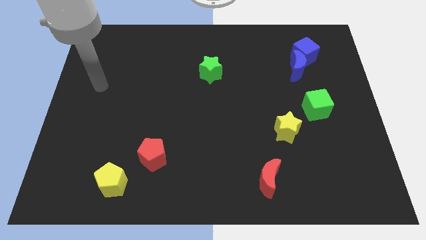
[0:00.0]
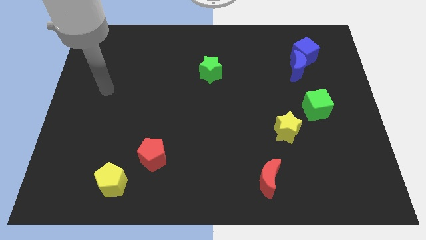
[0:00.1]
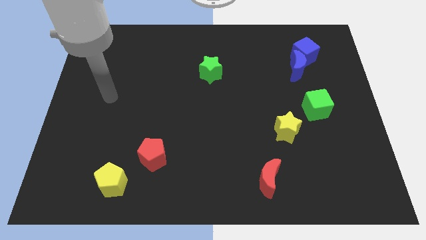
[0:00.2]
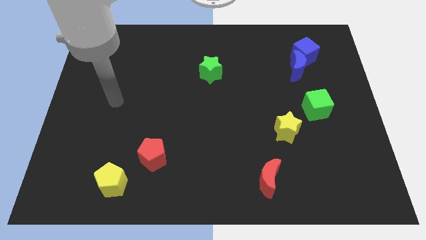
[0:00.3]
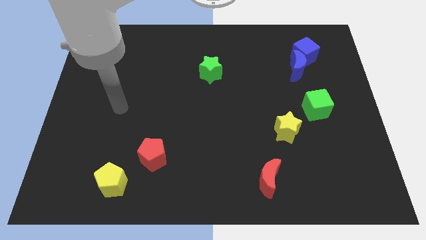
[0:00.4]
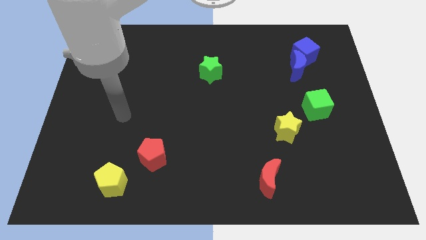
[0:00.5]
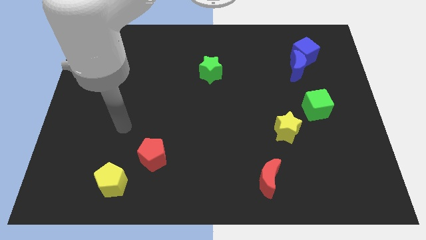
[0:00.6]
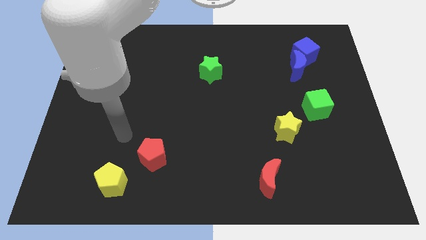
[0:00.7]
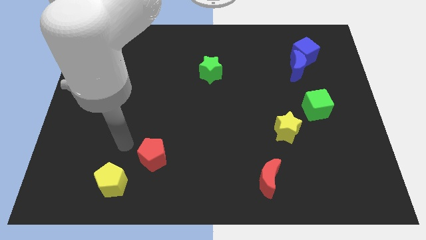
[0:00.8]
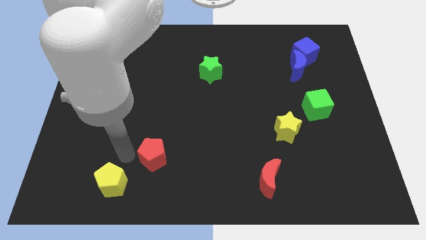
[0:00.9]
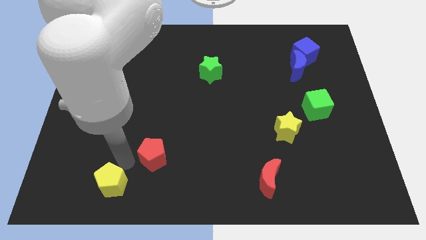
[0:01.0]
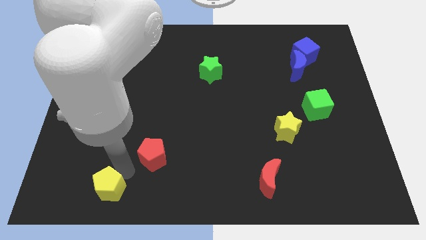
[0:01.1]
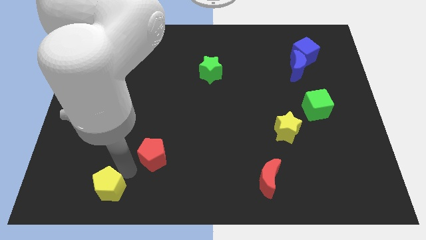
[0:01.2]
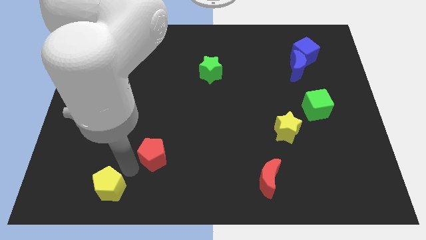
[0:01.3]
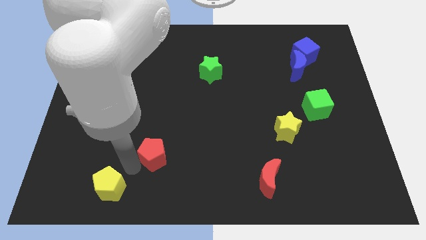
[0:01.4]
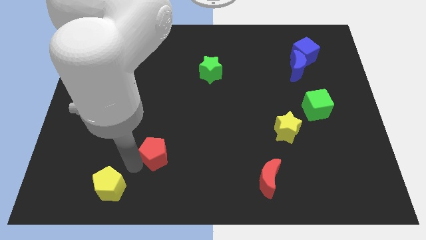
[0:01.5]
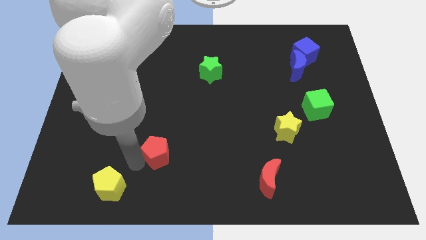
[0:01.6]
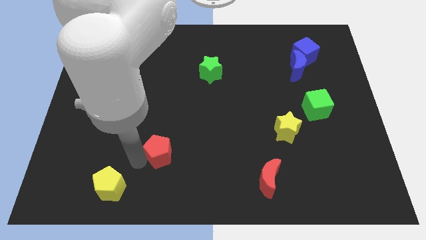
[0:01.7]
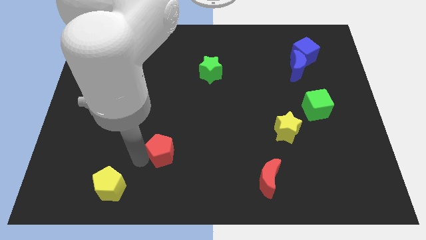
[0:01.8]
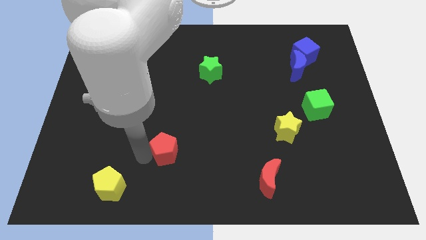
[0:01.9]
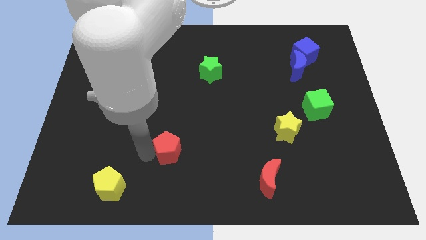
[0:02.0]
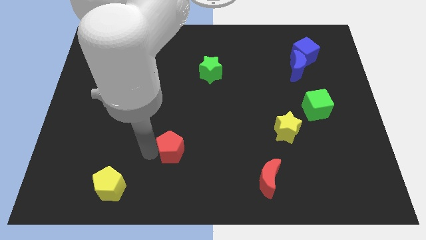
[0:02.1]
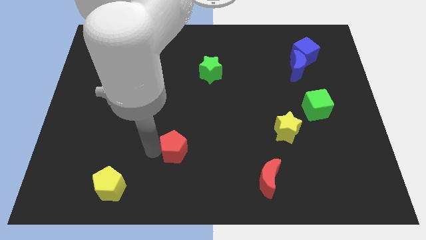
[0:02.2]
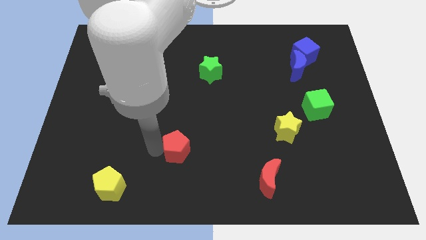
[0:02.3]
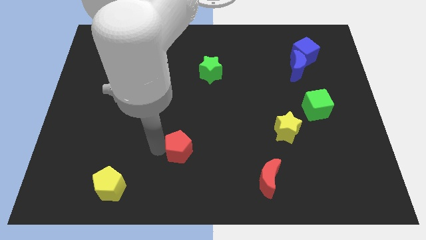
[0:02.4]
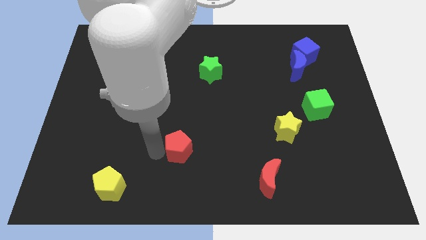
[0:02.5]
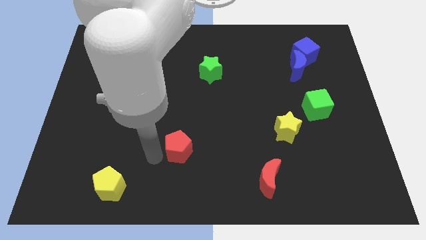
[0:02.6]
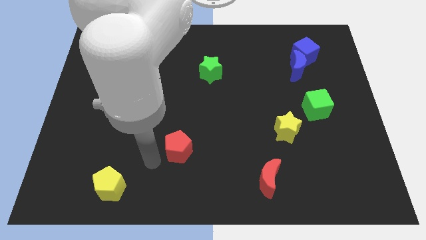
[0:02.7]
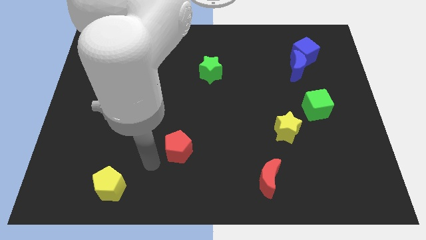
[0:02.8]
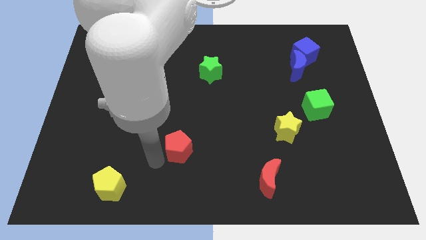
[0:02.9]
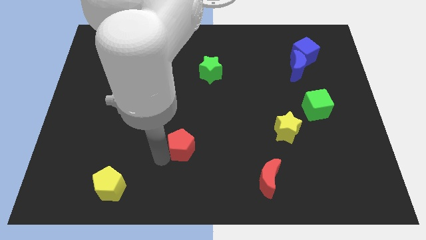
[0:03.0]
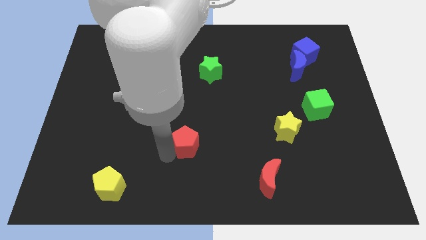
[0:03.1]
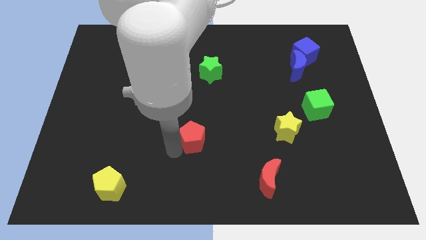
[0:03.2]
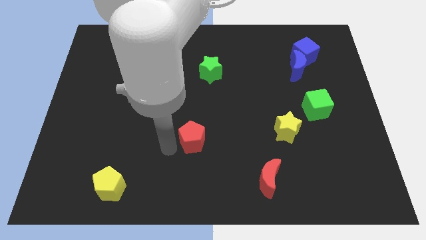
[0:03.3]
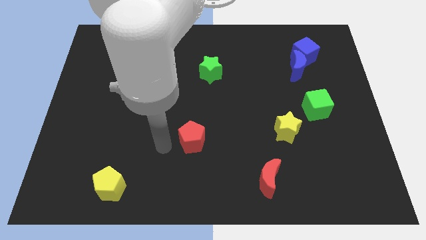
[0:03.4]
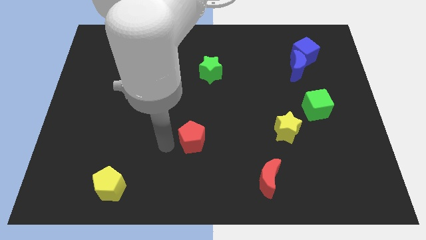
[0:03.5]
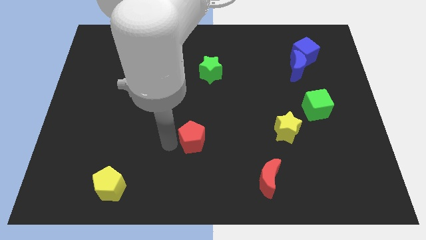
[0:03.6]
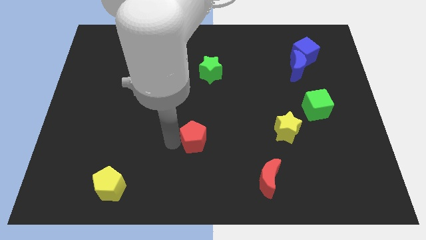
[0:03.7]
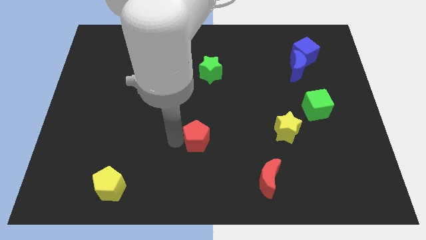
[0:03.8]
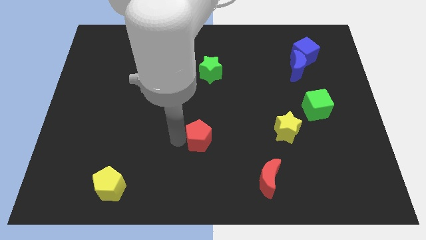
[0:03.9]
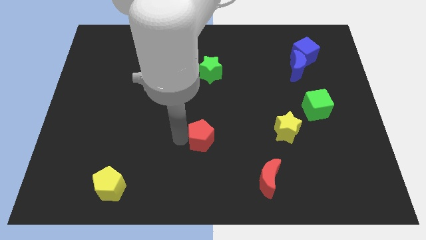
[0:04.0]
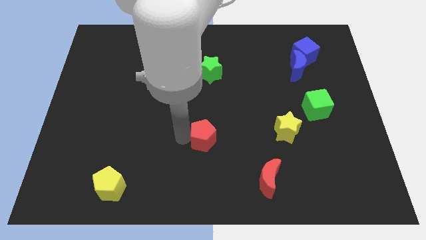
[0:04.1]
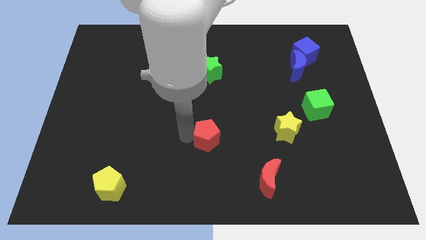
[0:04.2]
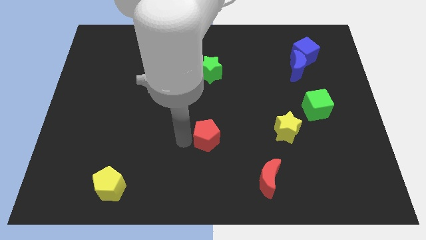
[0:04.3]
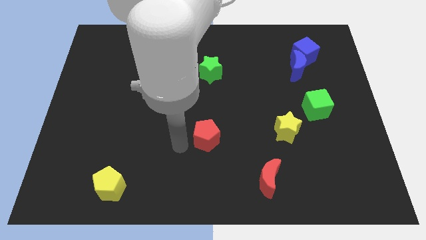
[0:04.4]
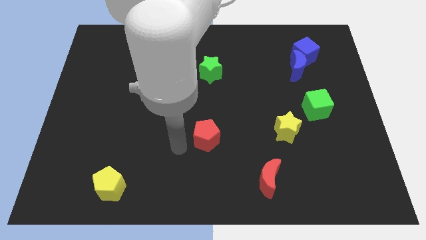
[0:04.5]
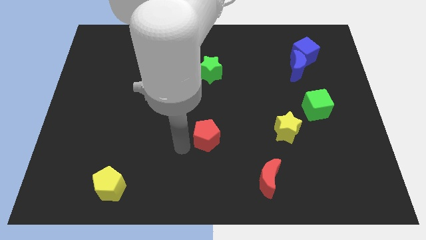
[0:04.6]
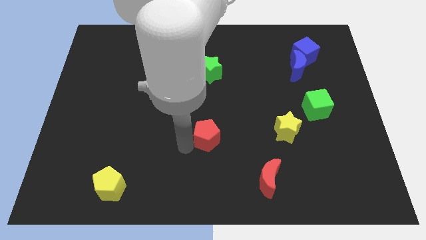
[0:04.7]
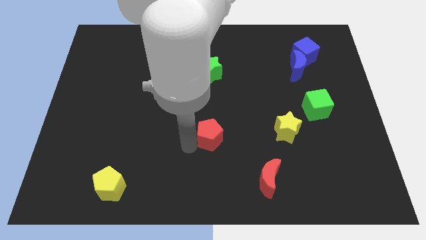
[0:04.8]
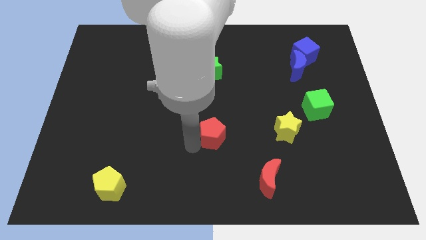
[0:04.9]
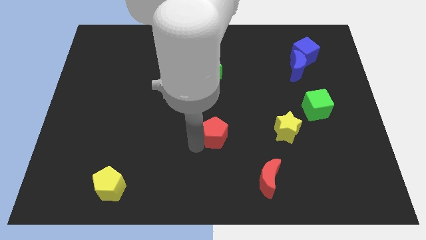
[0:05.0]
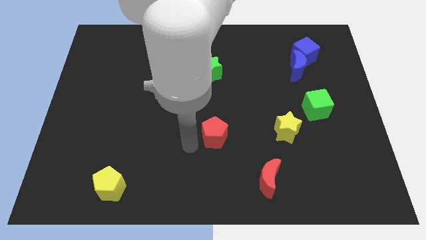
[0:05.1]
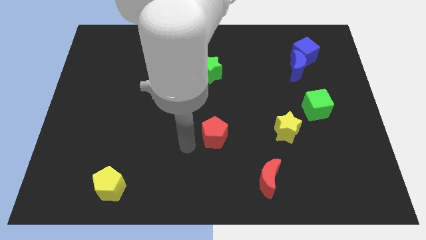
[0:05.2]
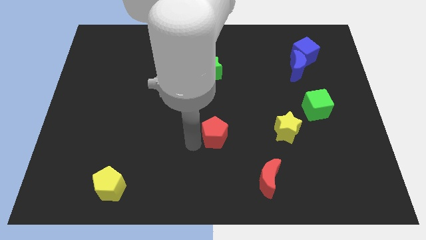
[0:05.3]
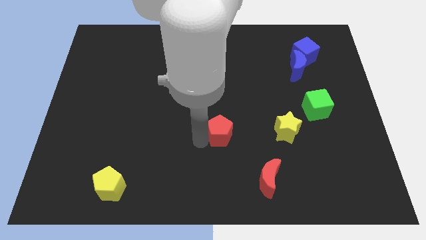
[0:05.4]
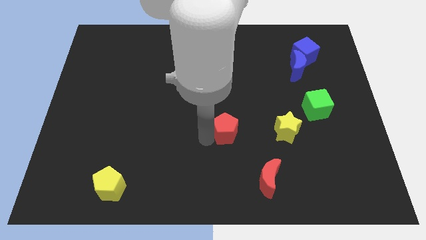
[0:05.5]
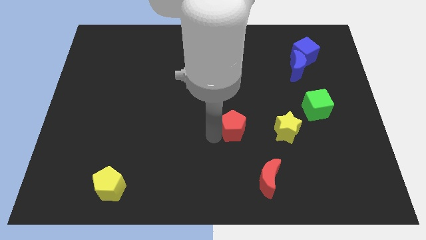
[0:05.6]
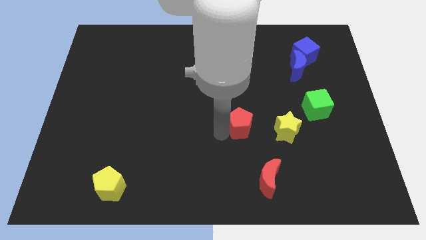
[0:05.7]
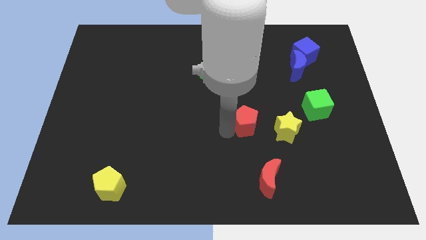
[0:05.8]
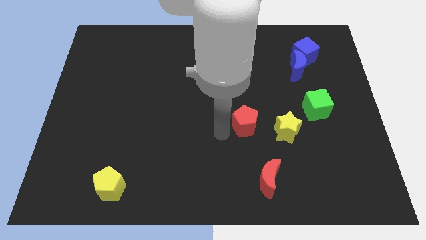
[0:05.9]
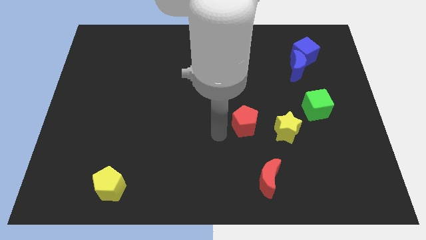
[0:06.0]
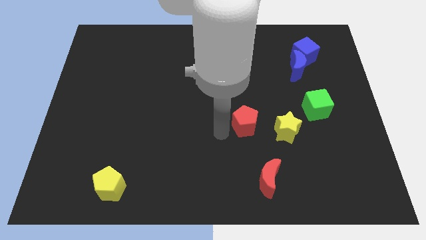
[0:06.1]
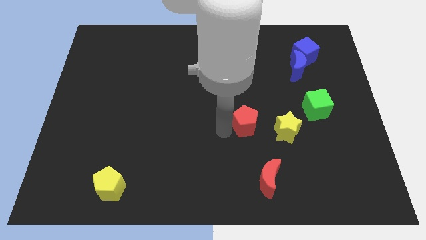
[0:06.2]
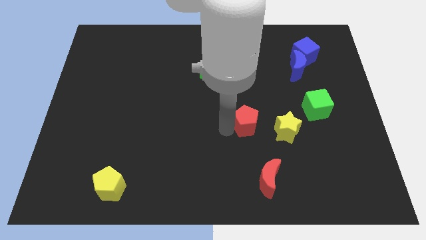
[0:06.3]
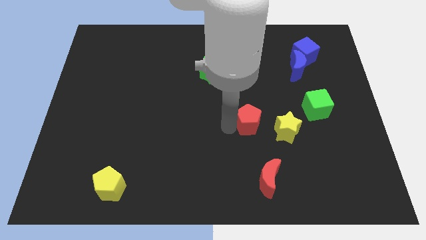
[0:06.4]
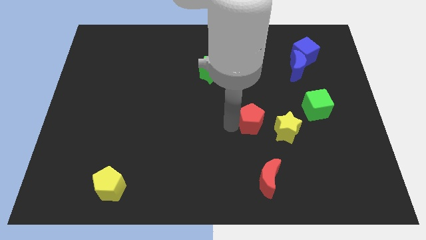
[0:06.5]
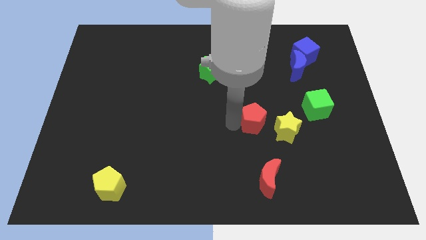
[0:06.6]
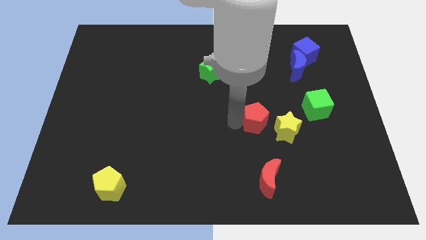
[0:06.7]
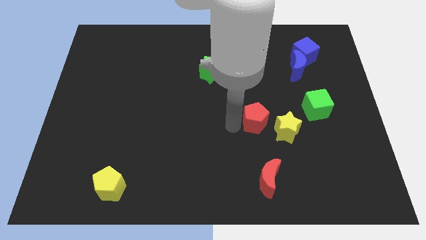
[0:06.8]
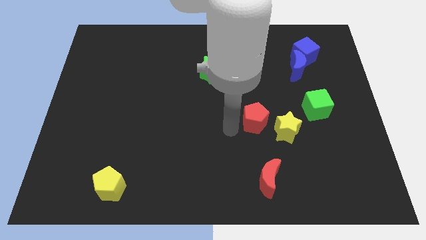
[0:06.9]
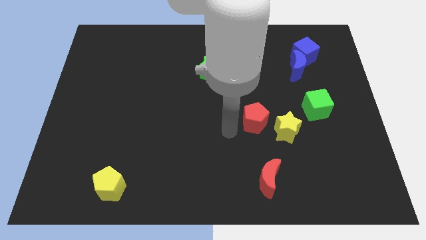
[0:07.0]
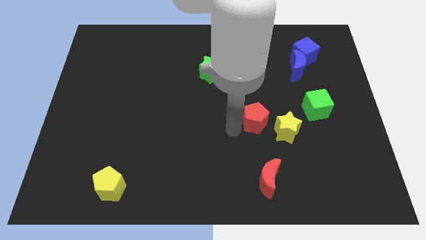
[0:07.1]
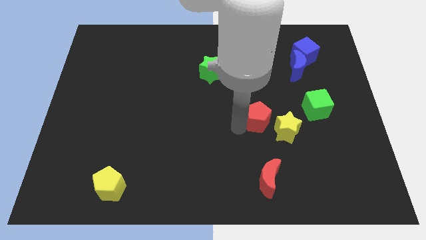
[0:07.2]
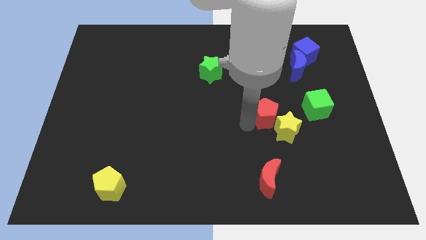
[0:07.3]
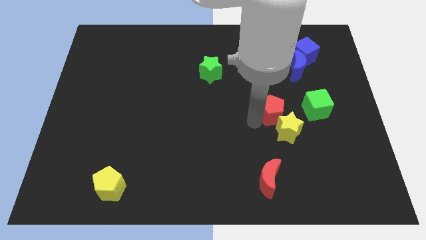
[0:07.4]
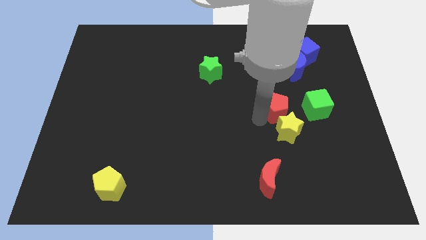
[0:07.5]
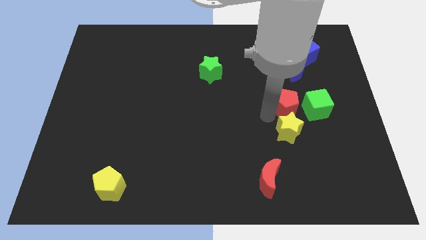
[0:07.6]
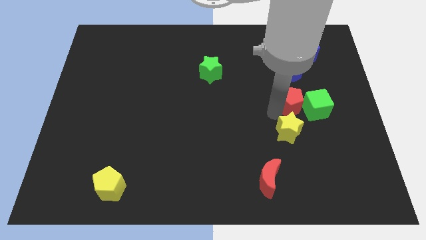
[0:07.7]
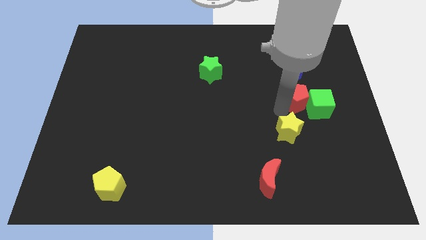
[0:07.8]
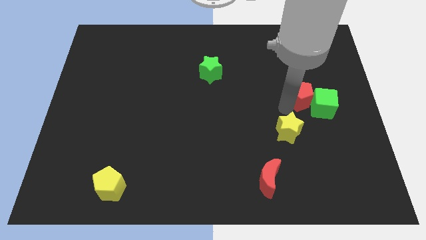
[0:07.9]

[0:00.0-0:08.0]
move the red pentagon to the bottom of the blue cube

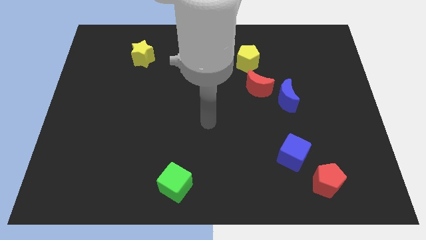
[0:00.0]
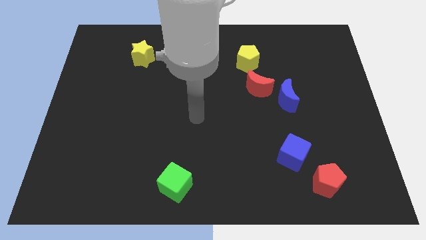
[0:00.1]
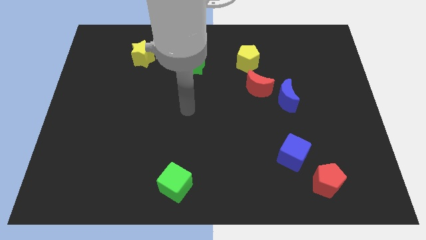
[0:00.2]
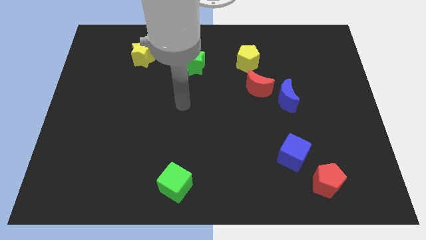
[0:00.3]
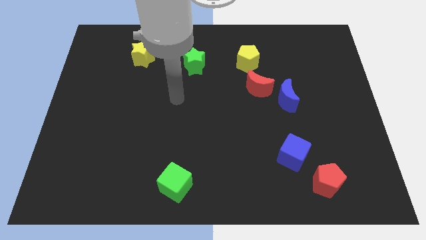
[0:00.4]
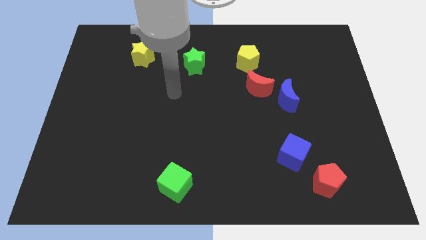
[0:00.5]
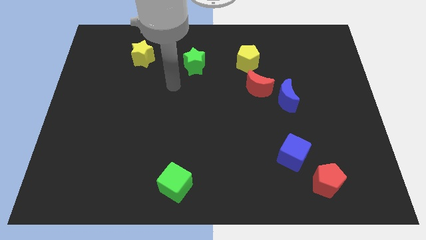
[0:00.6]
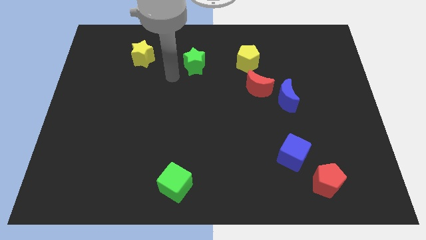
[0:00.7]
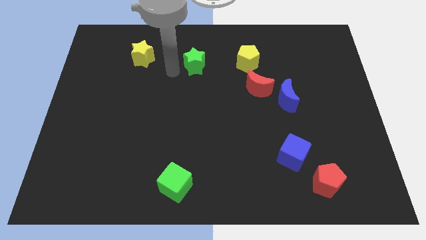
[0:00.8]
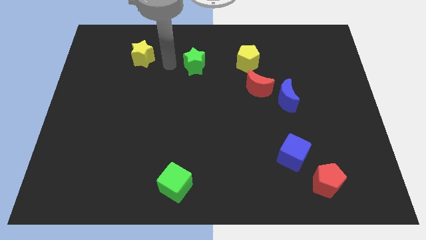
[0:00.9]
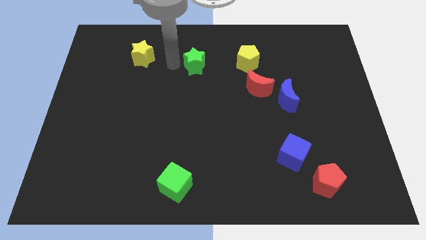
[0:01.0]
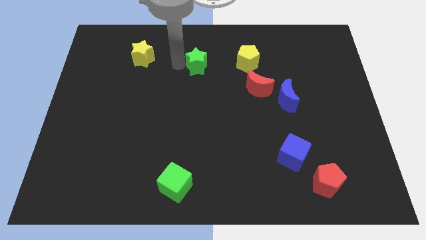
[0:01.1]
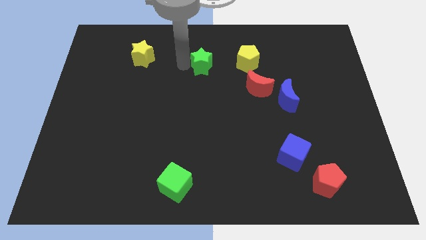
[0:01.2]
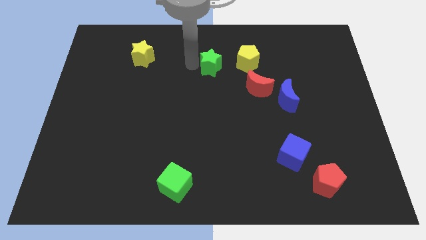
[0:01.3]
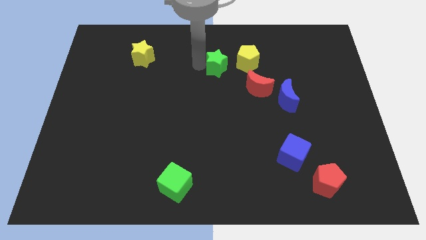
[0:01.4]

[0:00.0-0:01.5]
put the green star diagonally up and to the left of the red moon
